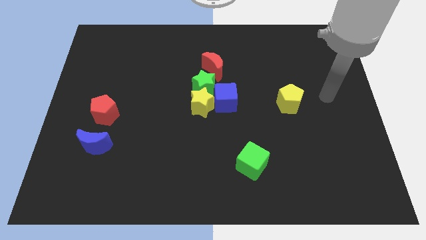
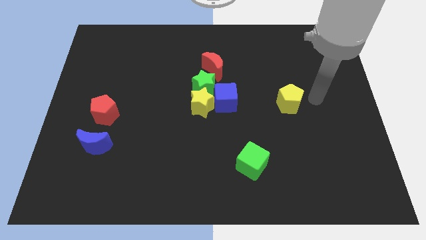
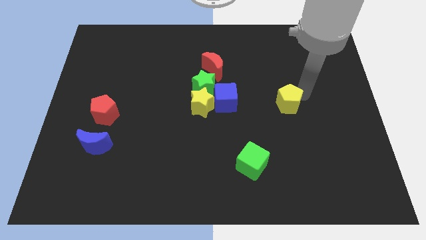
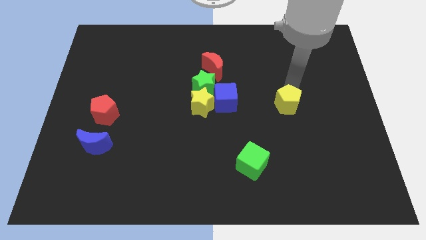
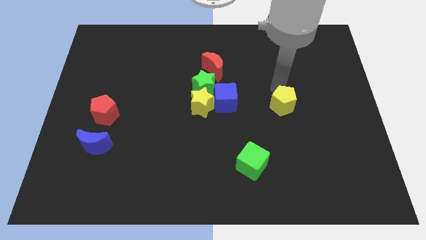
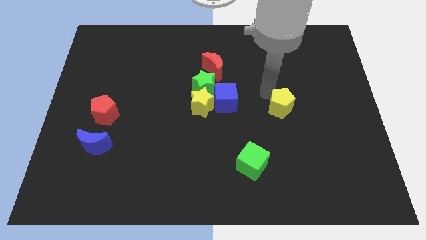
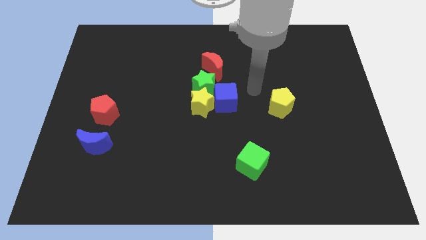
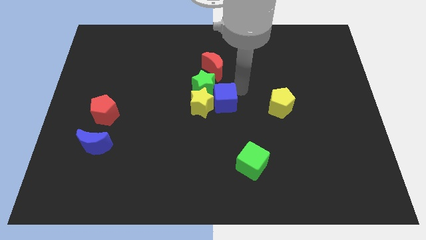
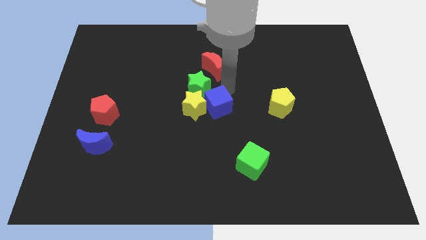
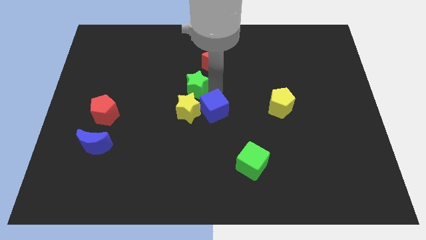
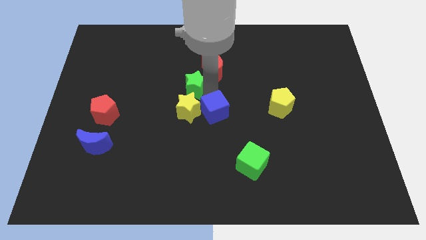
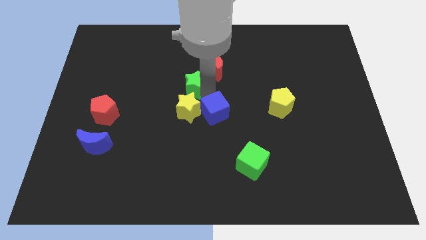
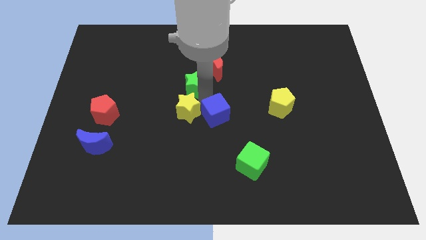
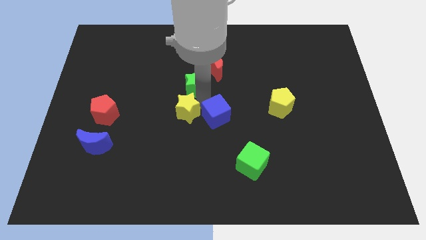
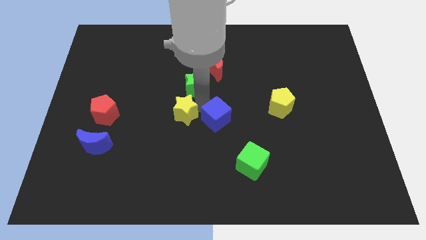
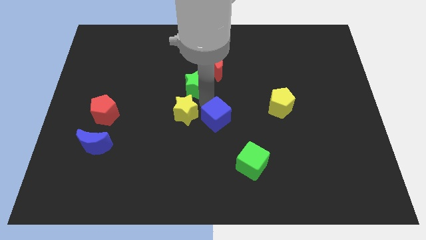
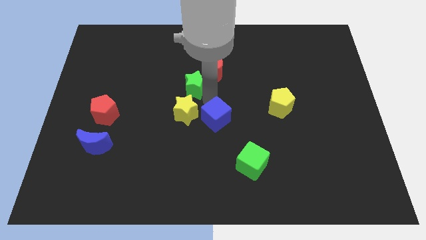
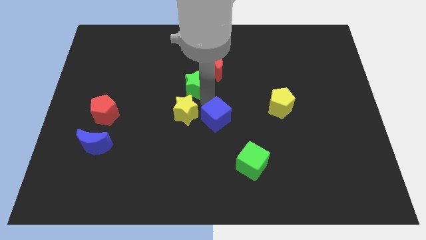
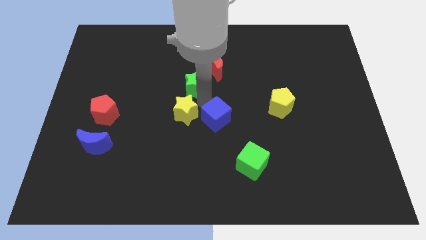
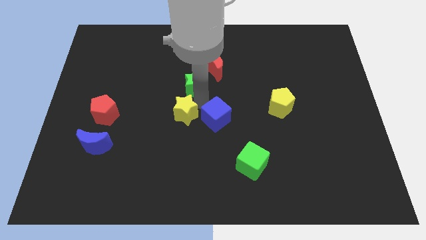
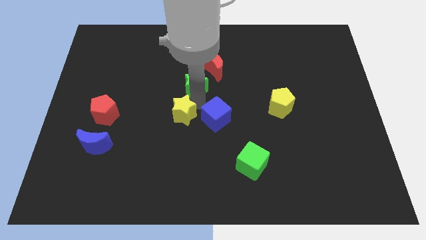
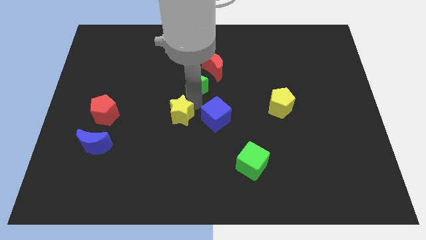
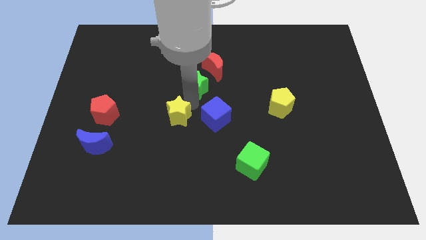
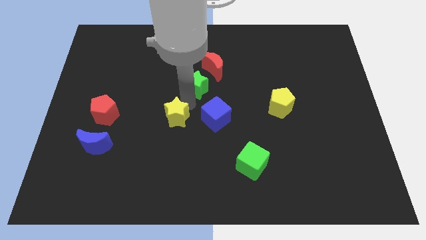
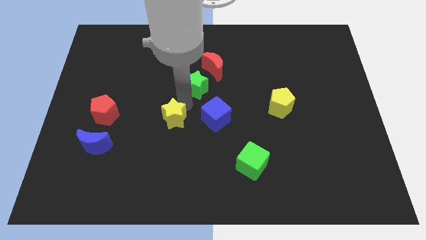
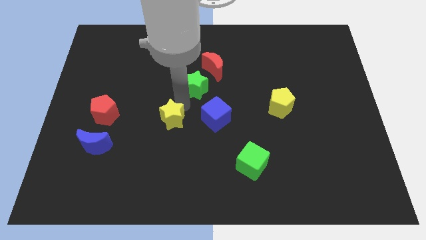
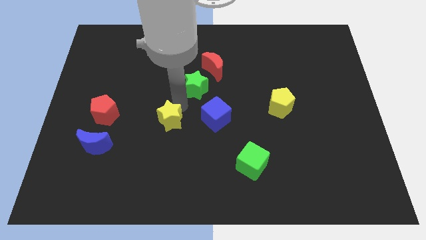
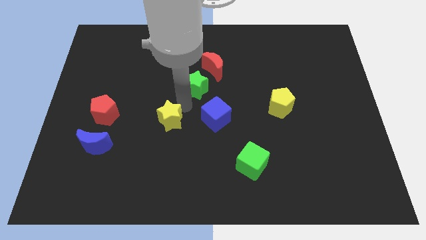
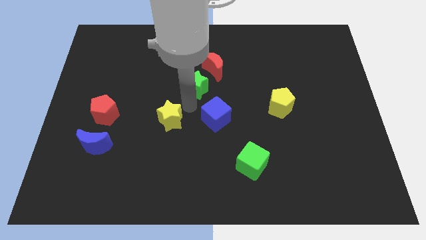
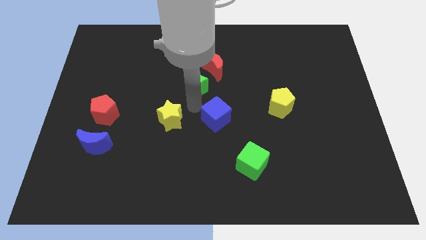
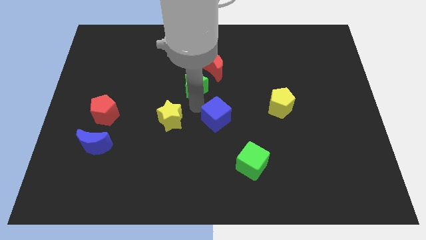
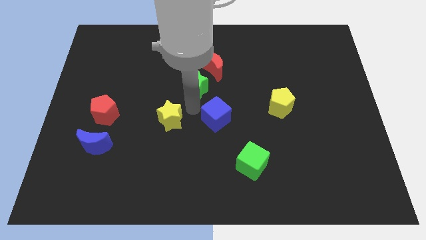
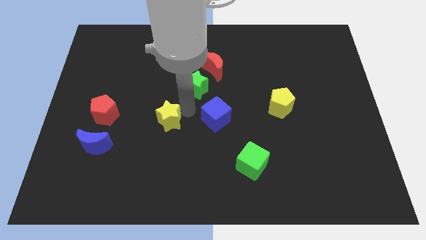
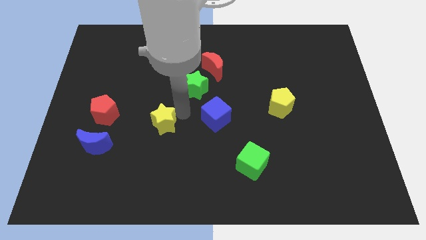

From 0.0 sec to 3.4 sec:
separate the yellow star from the green star and blue cube

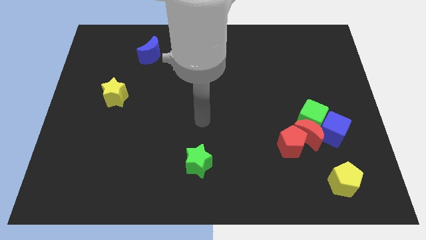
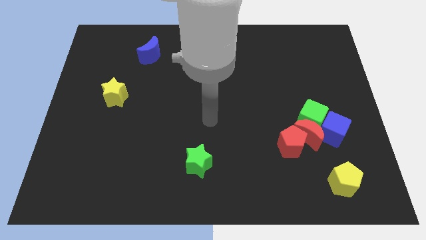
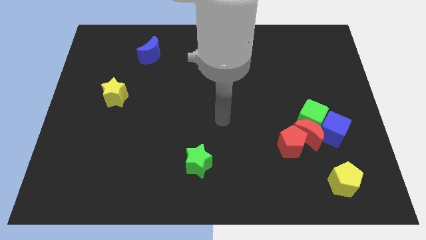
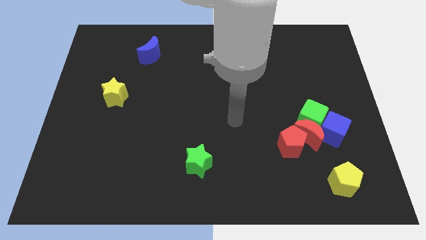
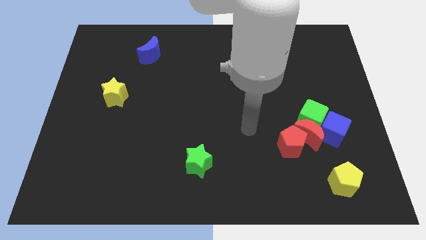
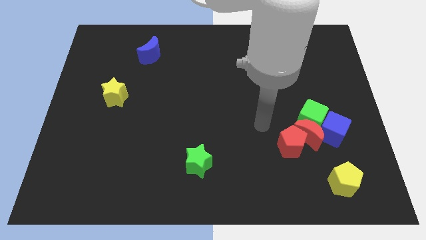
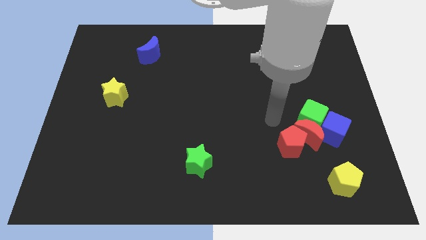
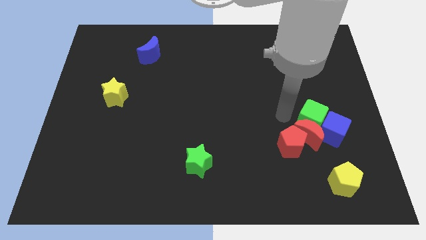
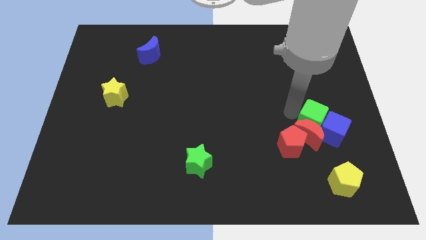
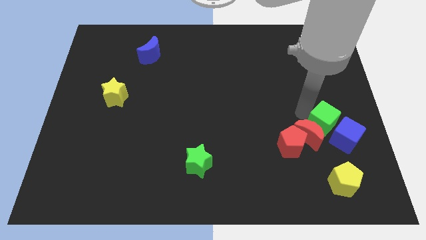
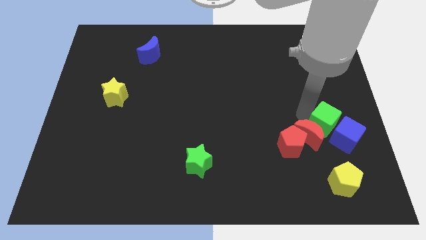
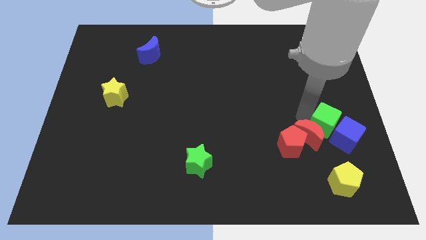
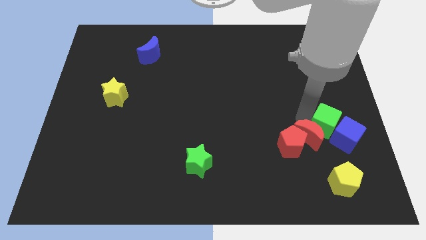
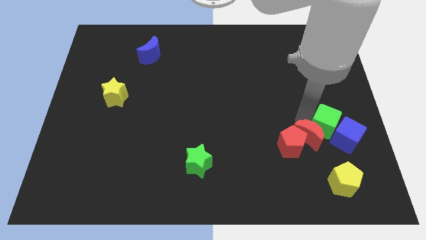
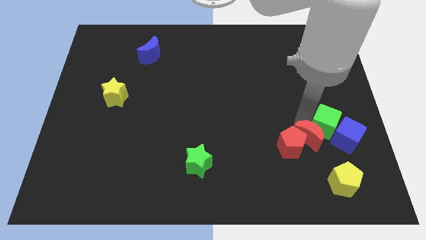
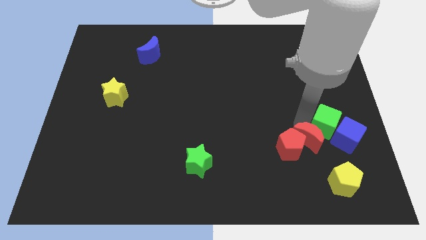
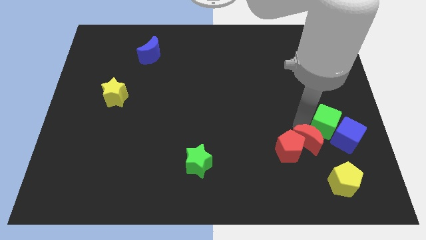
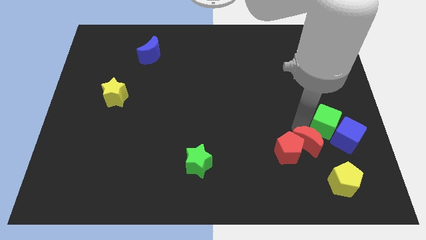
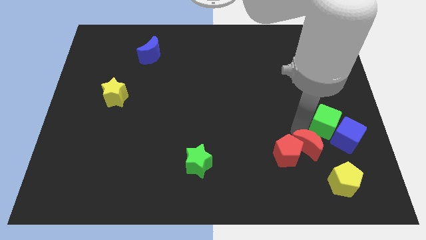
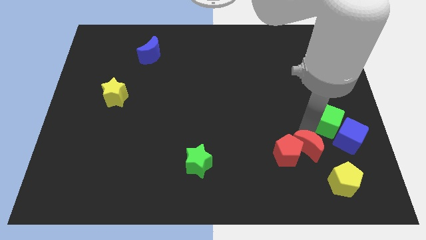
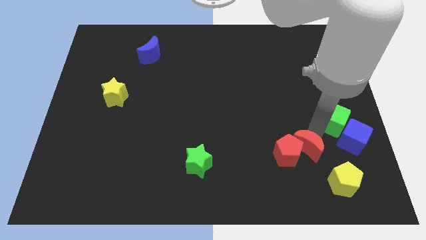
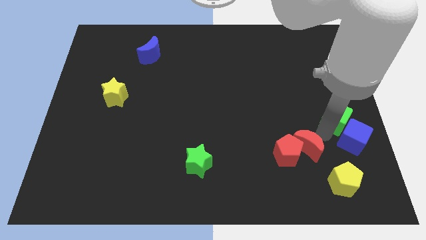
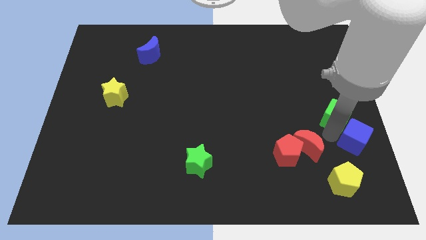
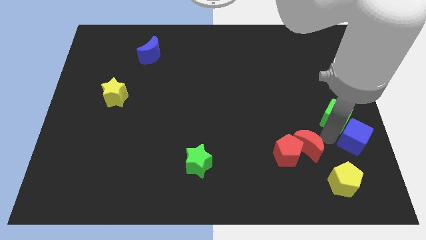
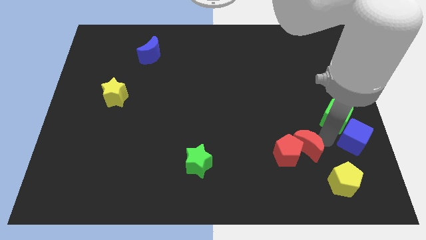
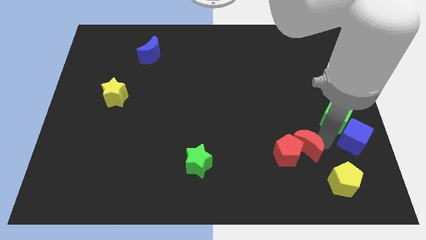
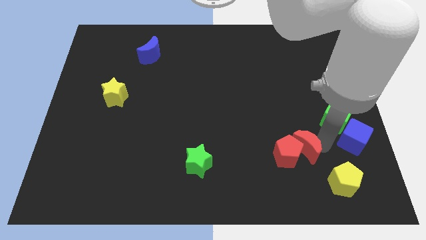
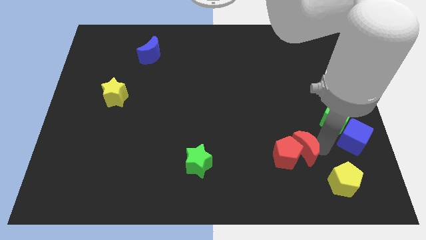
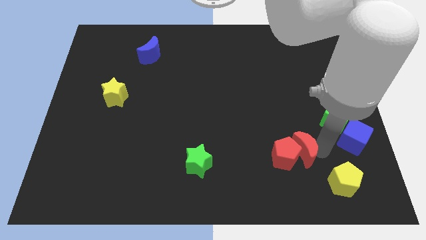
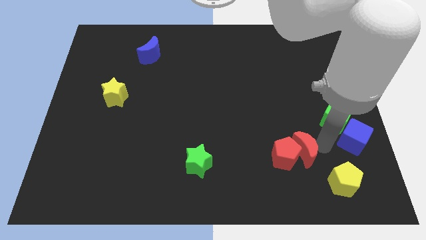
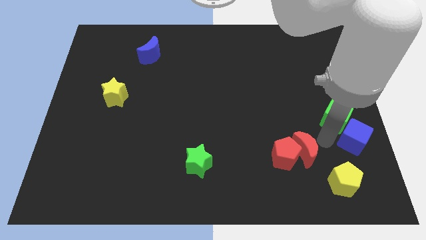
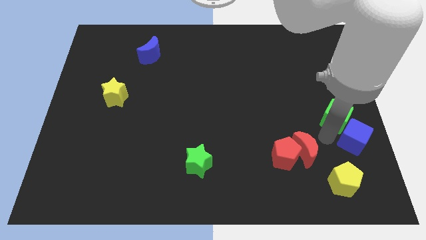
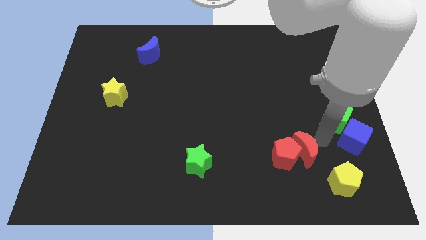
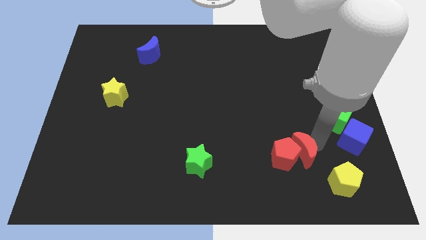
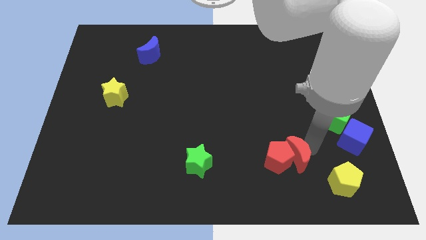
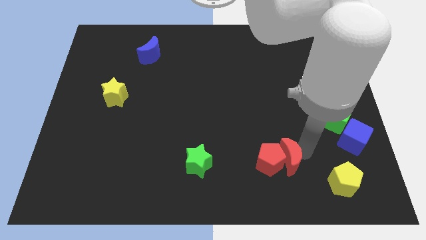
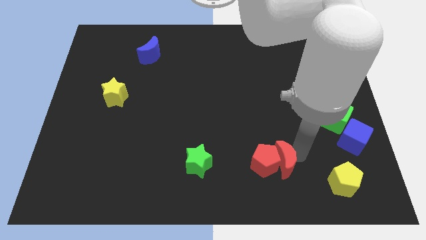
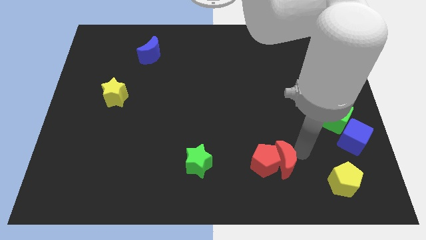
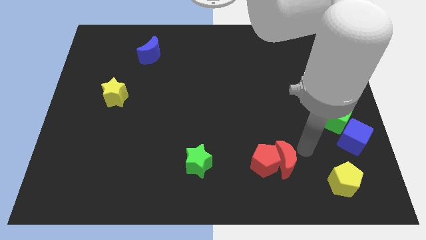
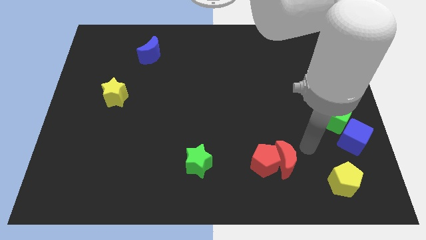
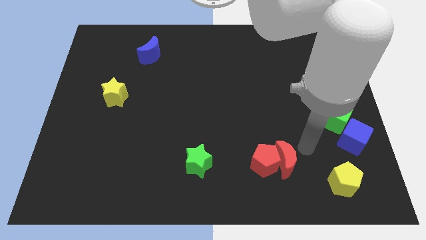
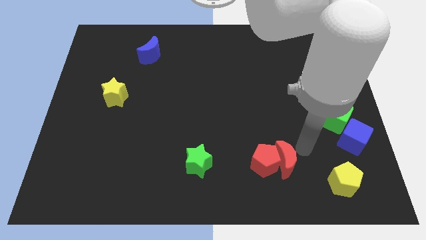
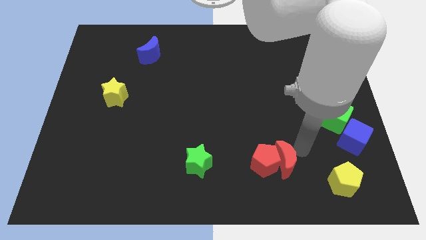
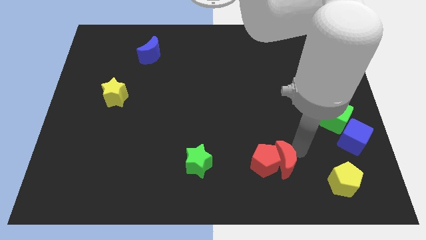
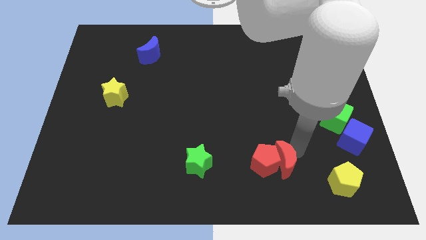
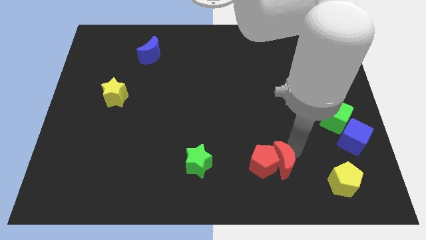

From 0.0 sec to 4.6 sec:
separate the red moon from the green cube, red pentagon, and blue cube

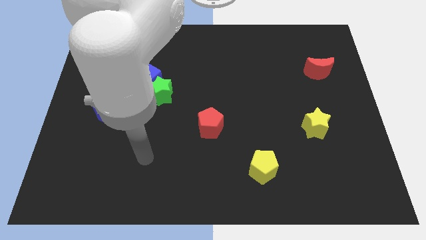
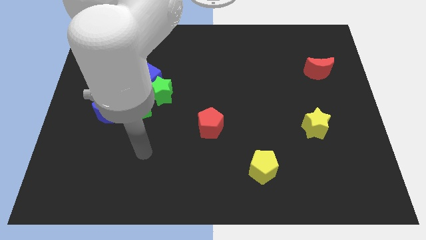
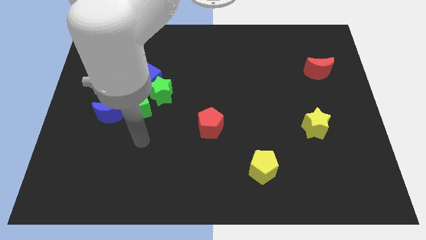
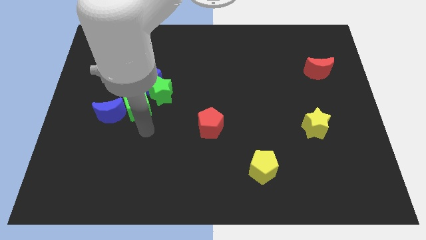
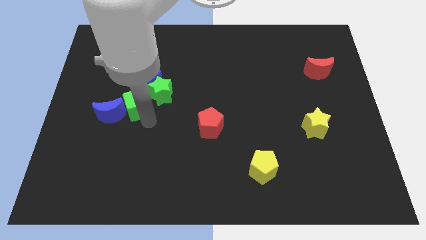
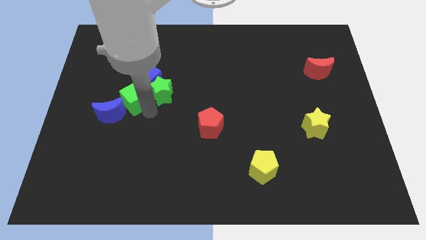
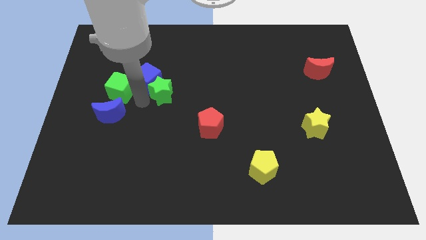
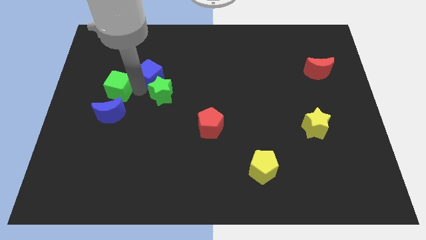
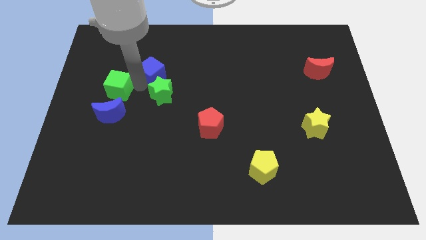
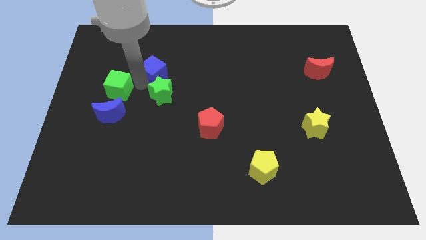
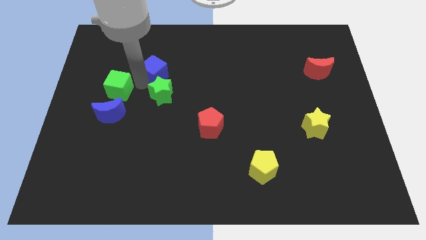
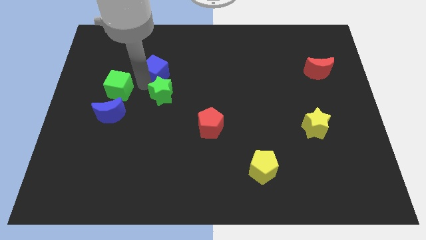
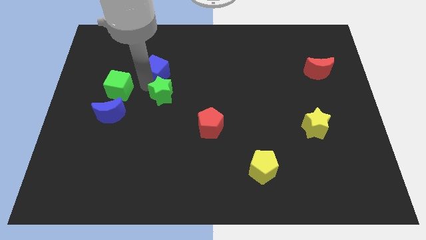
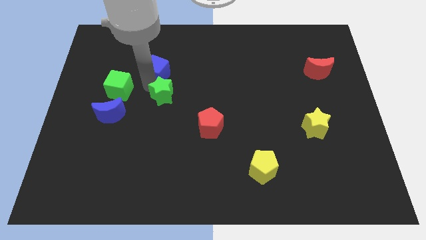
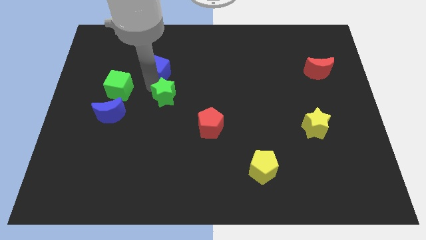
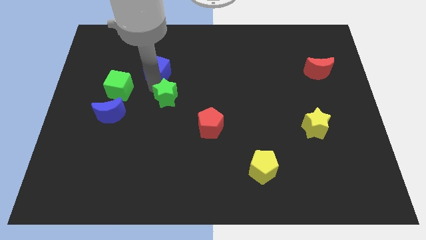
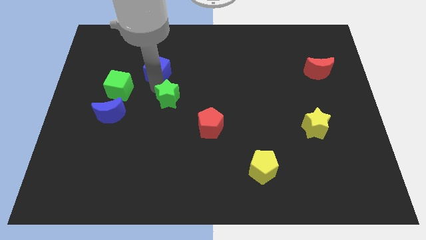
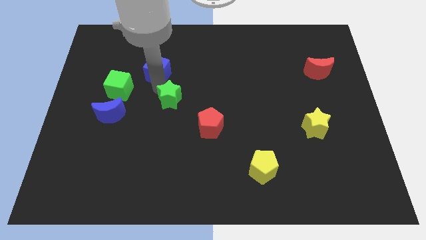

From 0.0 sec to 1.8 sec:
move the green star away from the blue cube and green cube
